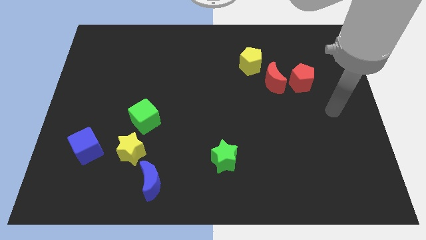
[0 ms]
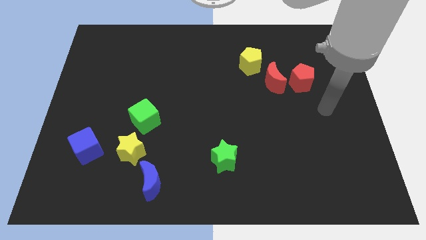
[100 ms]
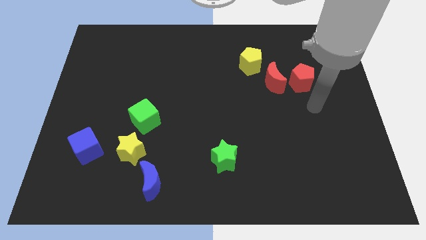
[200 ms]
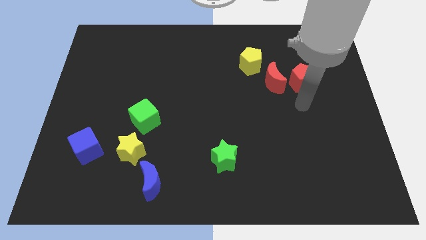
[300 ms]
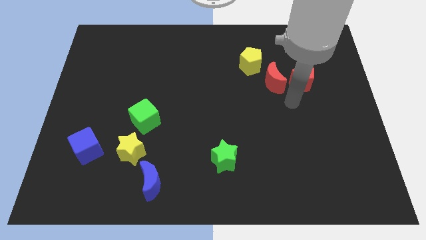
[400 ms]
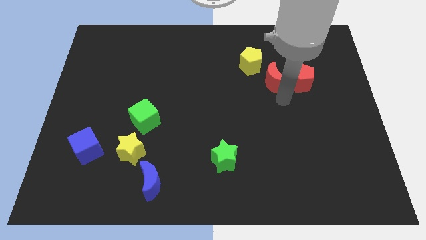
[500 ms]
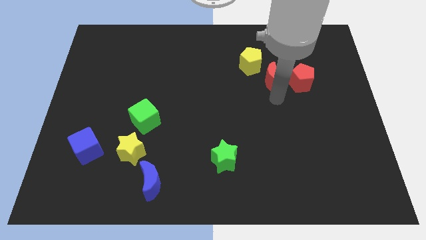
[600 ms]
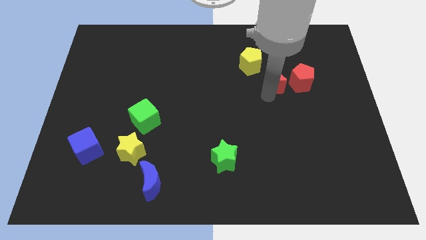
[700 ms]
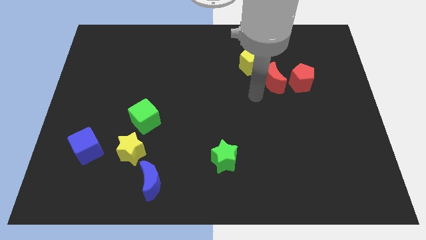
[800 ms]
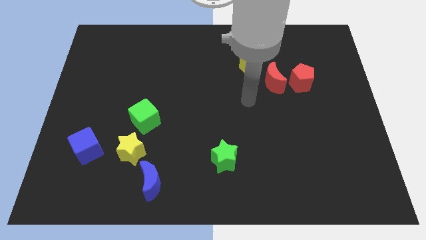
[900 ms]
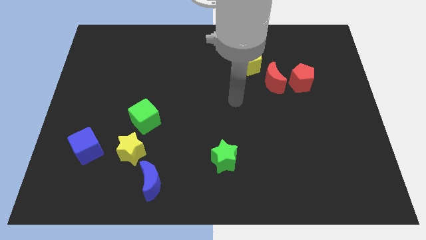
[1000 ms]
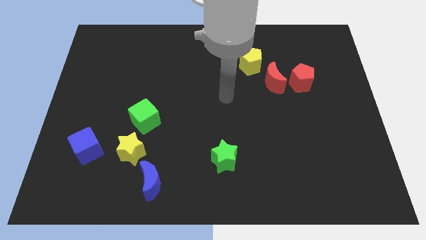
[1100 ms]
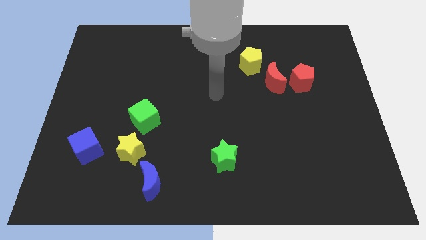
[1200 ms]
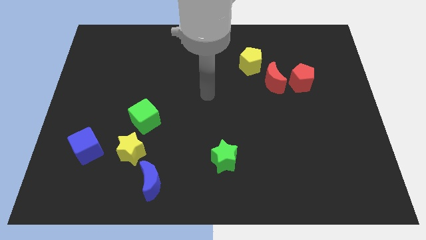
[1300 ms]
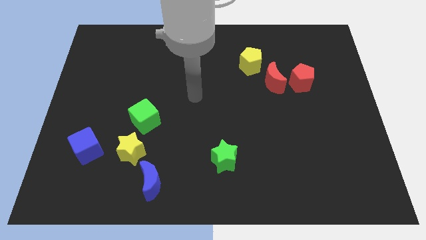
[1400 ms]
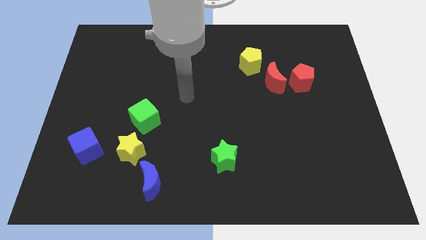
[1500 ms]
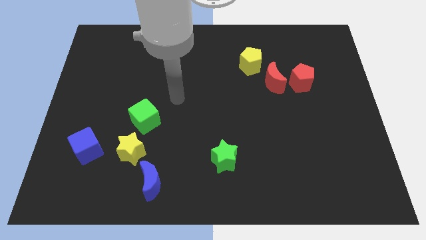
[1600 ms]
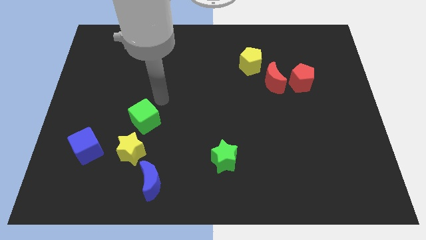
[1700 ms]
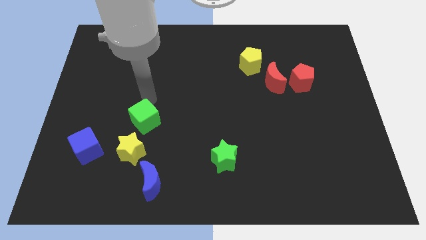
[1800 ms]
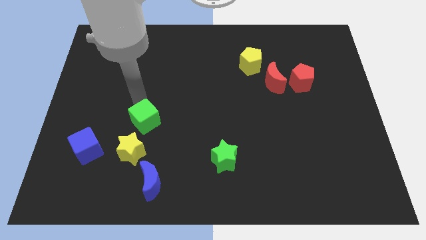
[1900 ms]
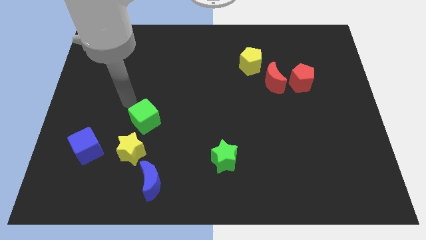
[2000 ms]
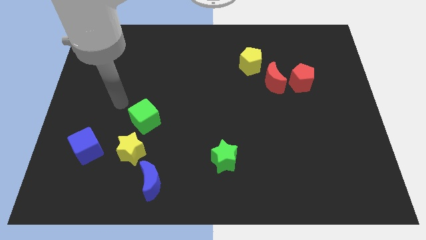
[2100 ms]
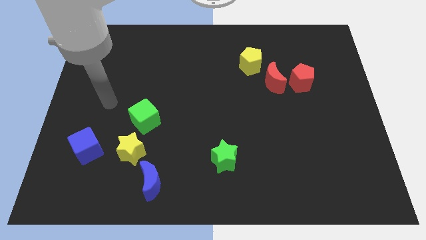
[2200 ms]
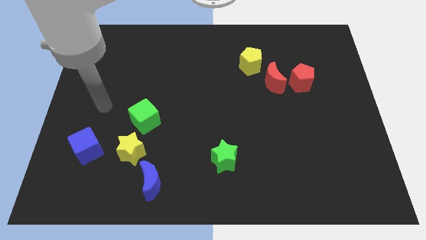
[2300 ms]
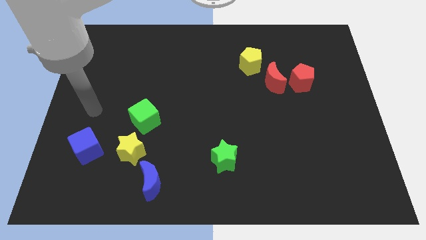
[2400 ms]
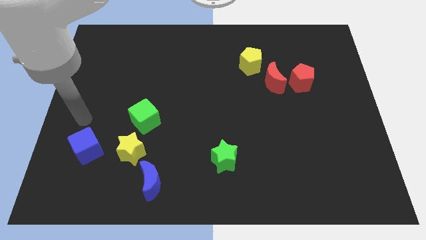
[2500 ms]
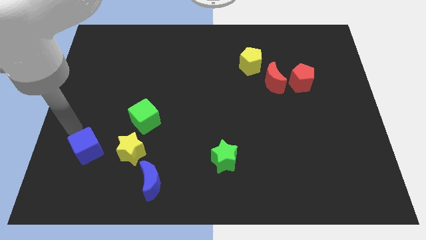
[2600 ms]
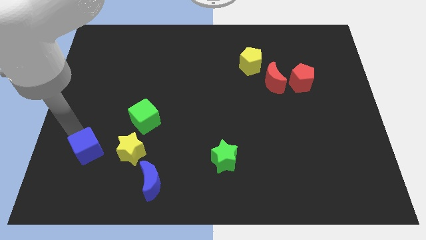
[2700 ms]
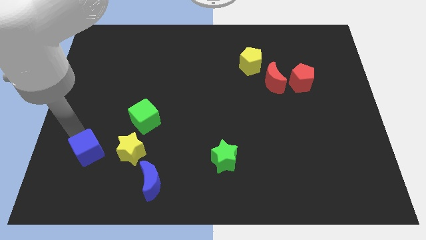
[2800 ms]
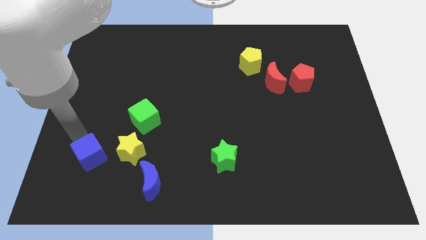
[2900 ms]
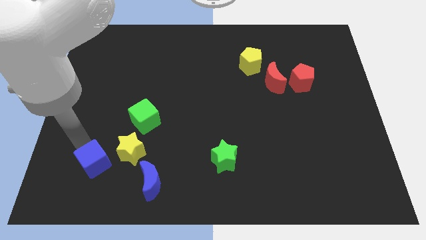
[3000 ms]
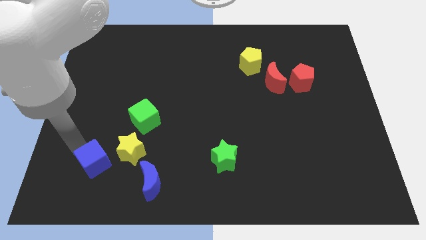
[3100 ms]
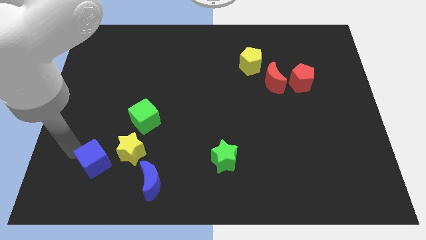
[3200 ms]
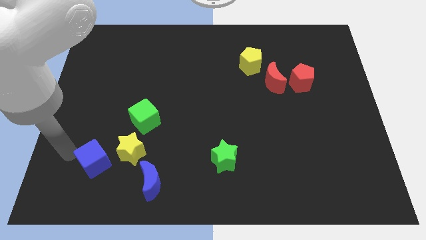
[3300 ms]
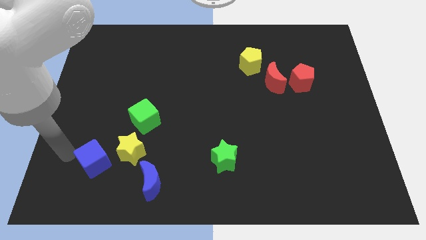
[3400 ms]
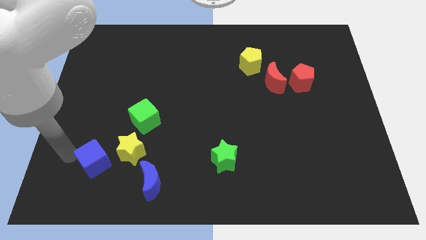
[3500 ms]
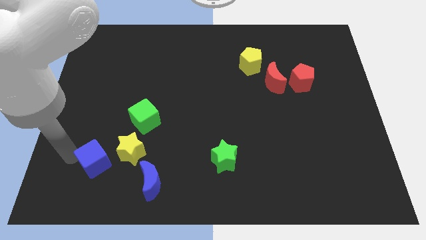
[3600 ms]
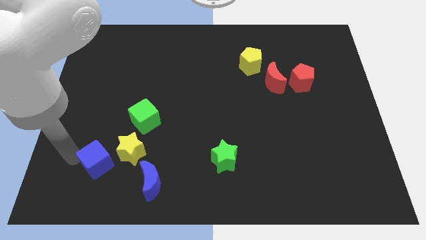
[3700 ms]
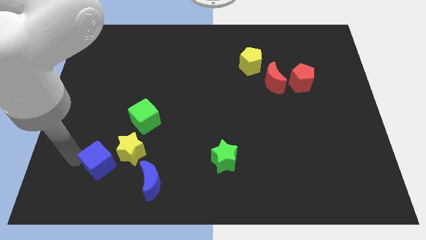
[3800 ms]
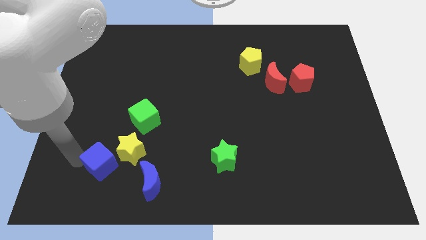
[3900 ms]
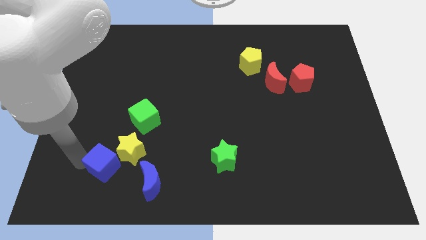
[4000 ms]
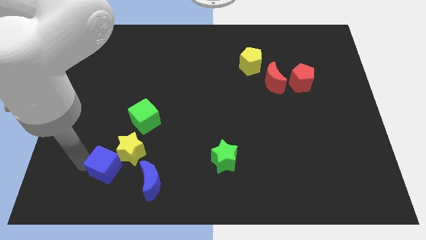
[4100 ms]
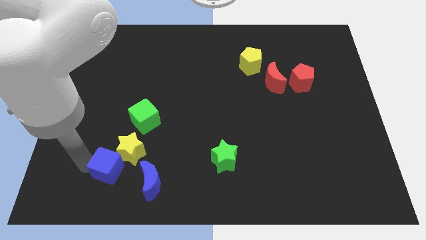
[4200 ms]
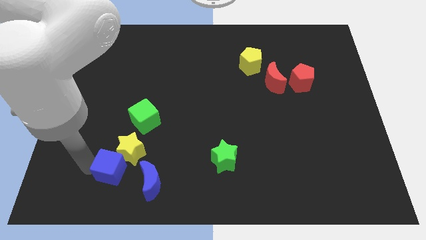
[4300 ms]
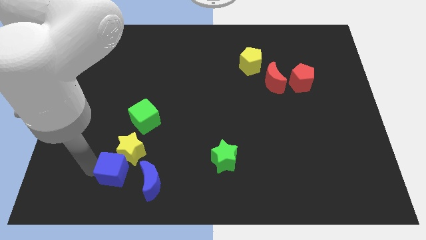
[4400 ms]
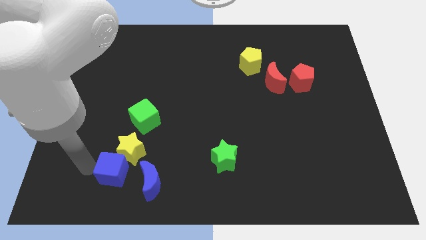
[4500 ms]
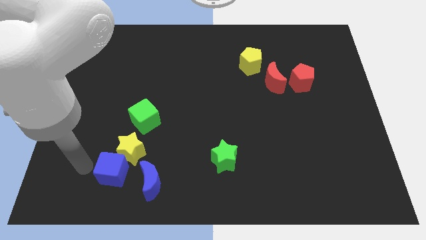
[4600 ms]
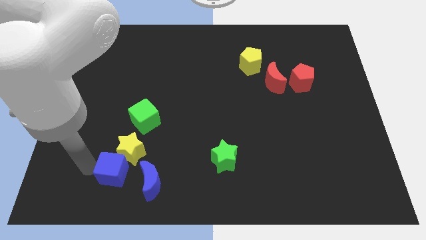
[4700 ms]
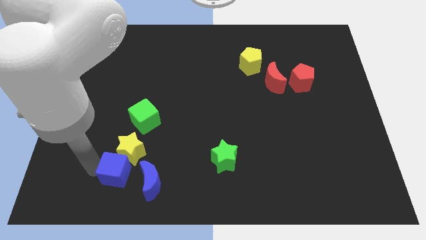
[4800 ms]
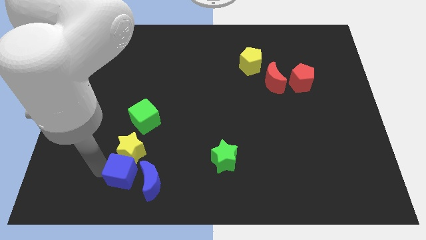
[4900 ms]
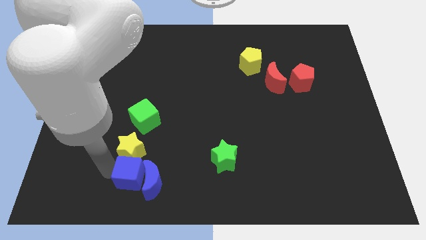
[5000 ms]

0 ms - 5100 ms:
slide the blue cube to the blue moon

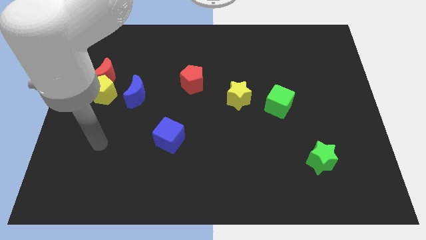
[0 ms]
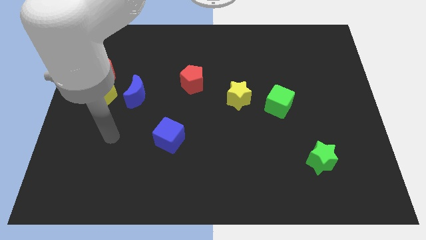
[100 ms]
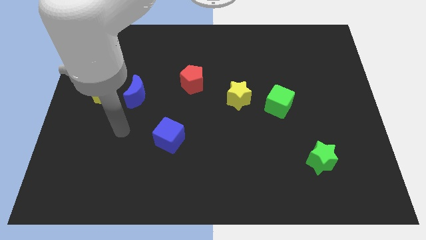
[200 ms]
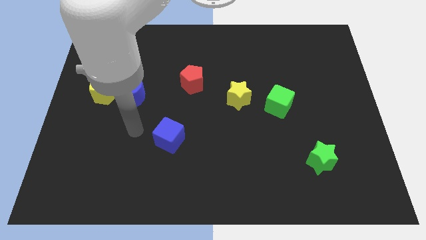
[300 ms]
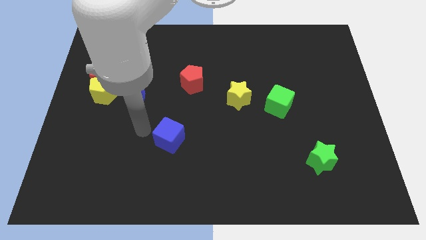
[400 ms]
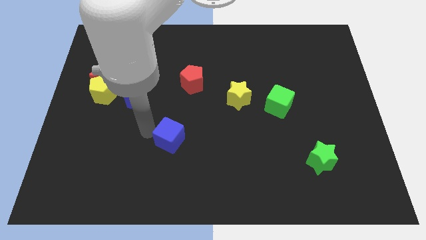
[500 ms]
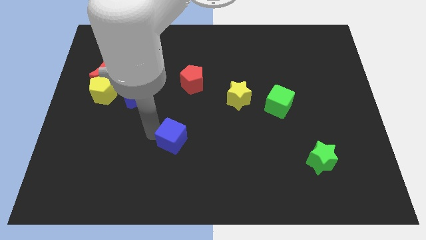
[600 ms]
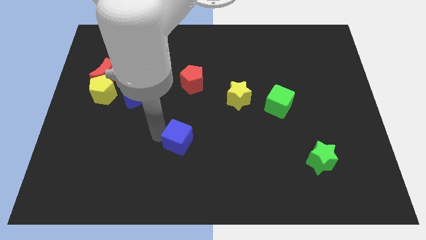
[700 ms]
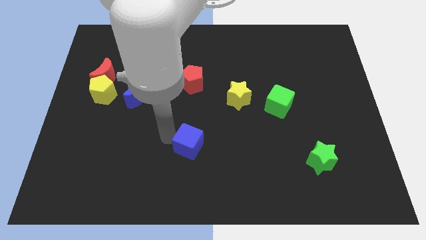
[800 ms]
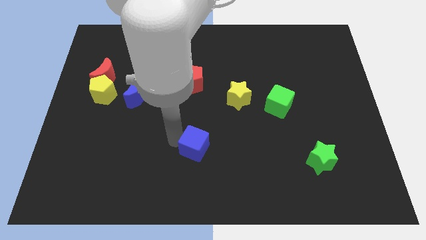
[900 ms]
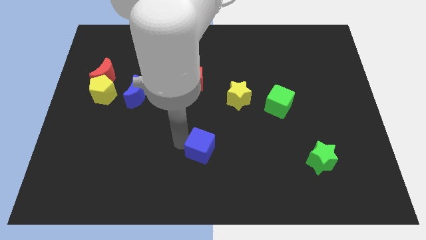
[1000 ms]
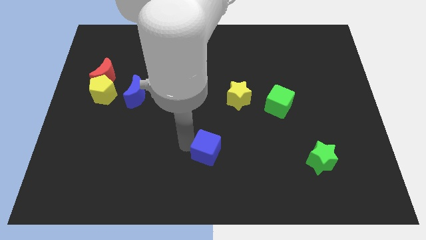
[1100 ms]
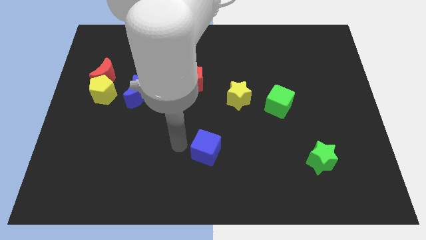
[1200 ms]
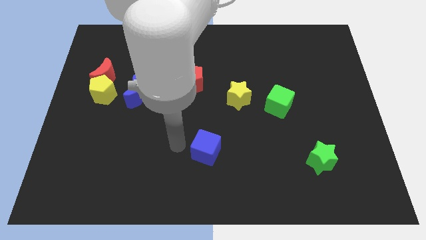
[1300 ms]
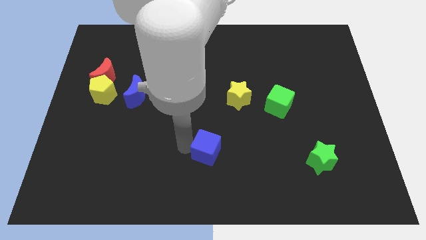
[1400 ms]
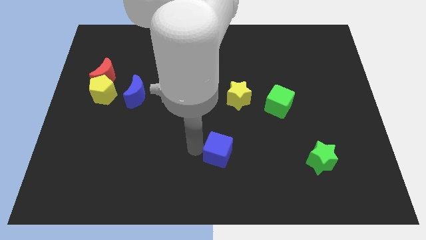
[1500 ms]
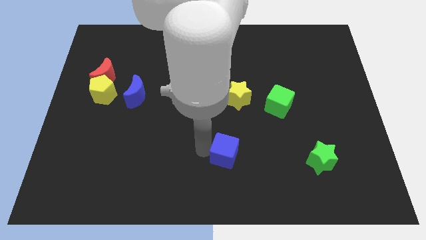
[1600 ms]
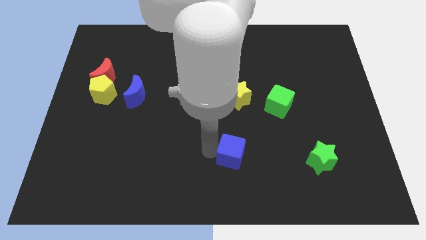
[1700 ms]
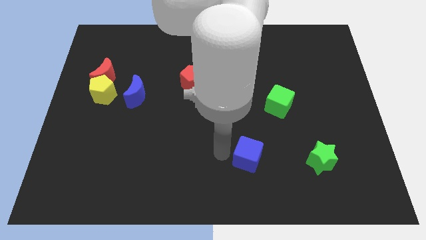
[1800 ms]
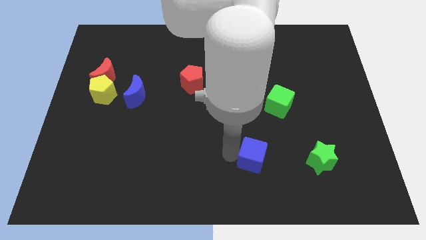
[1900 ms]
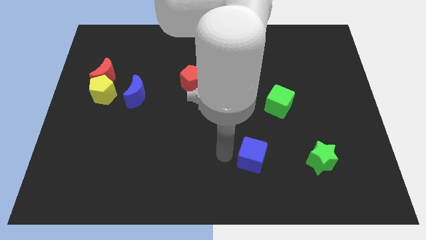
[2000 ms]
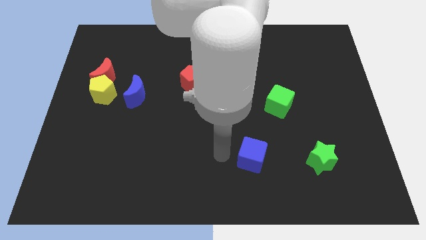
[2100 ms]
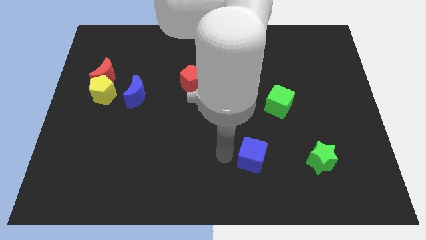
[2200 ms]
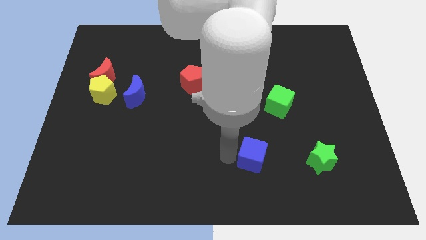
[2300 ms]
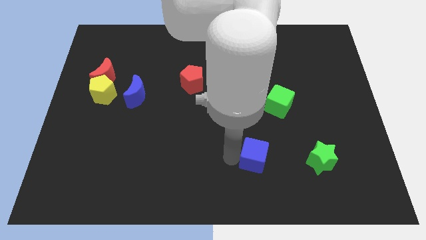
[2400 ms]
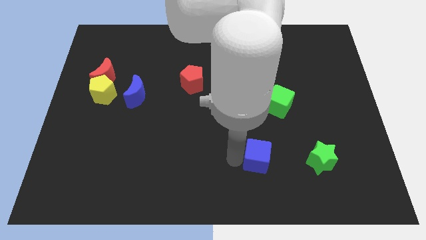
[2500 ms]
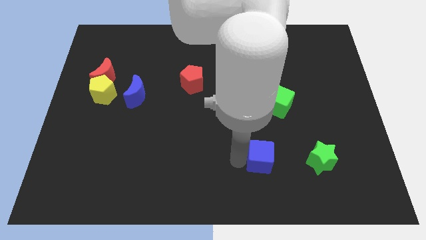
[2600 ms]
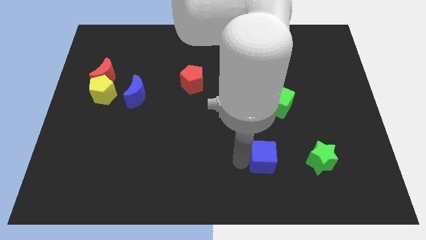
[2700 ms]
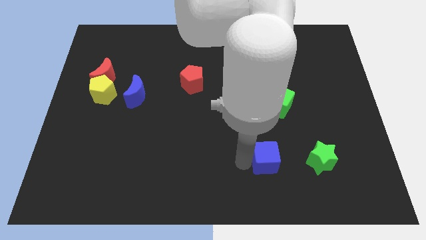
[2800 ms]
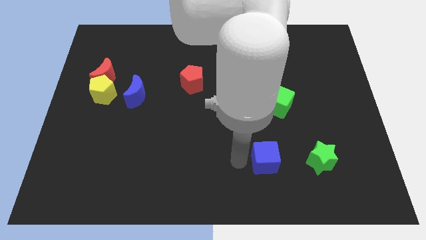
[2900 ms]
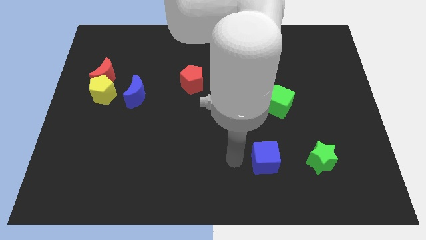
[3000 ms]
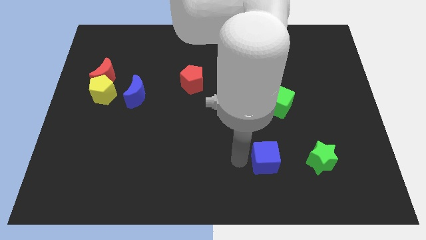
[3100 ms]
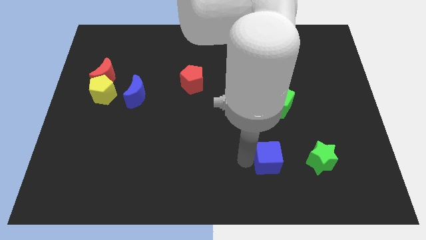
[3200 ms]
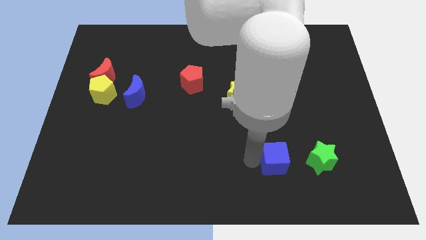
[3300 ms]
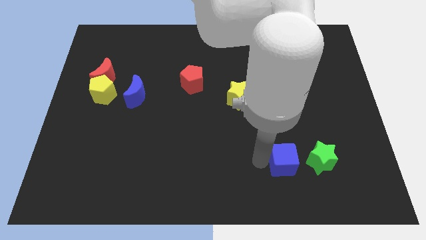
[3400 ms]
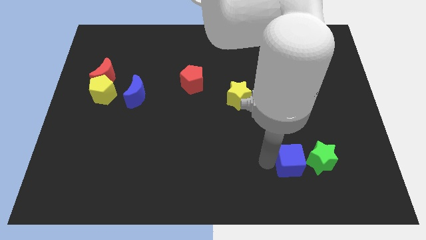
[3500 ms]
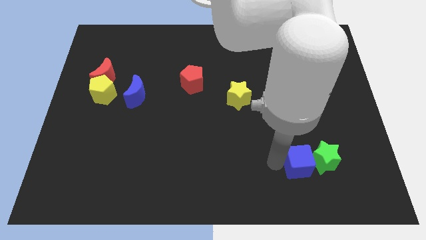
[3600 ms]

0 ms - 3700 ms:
push the blue cube next to the green star
